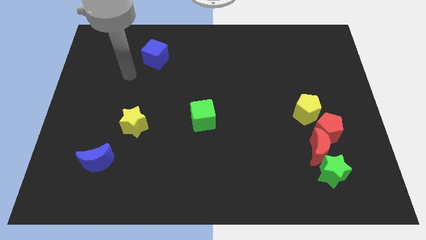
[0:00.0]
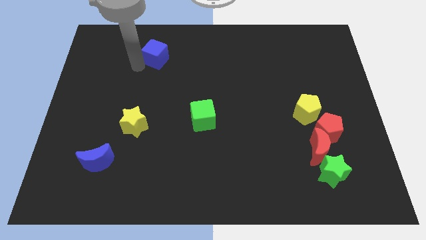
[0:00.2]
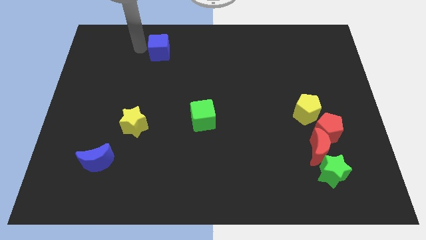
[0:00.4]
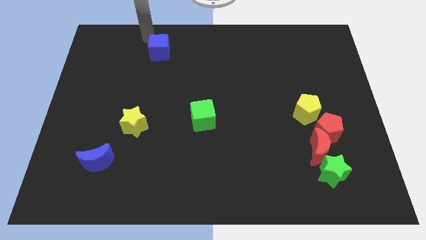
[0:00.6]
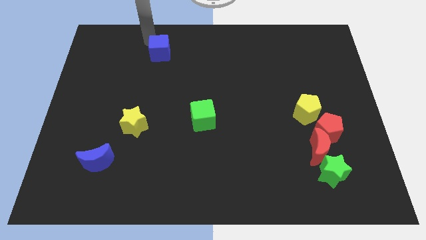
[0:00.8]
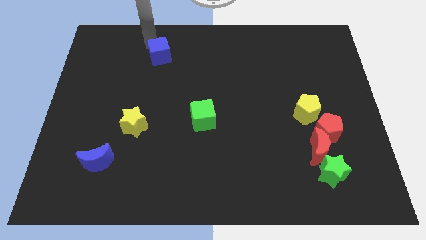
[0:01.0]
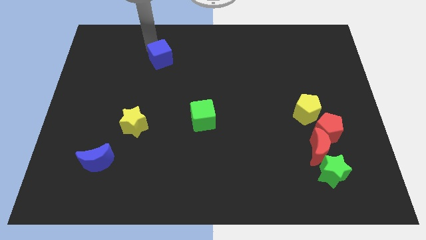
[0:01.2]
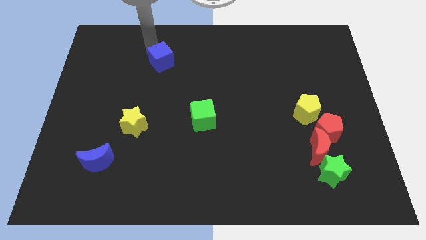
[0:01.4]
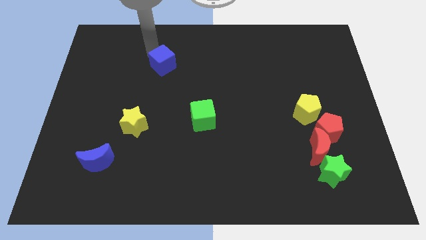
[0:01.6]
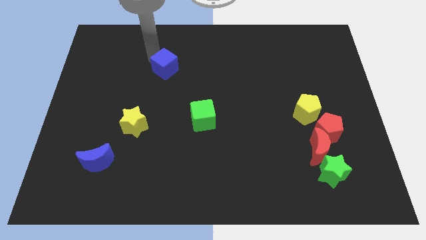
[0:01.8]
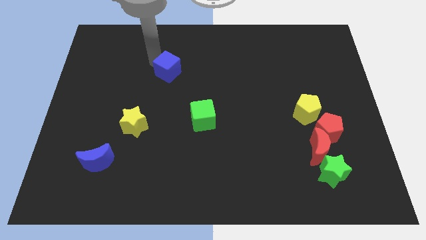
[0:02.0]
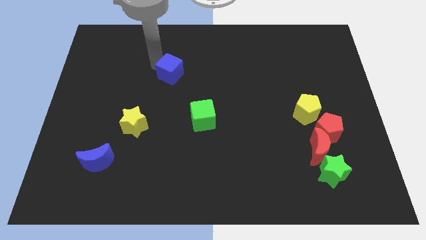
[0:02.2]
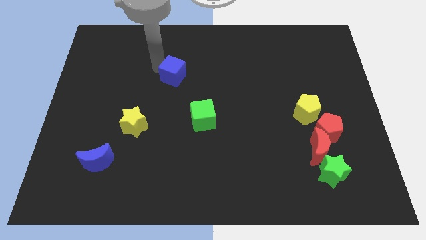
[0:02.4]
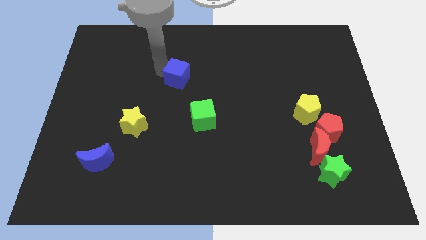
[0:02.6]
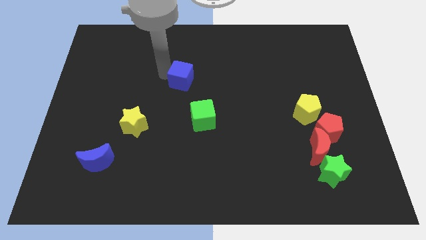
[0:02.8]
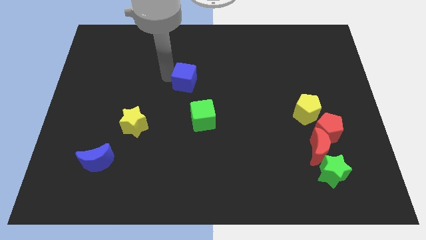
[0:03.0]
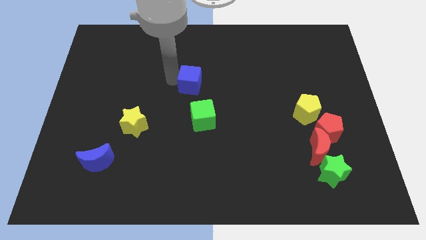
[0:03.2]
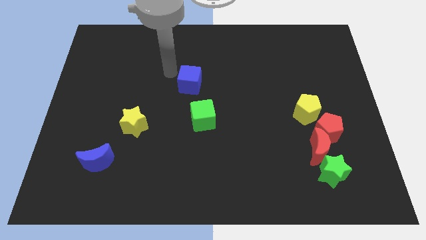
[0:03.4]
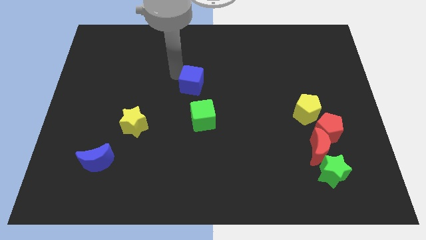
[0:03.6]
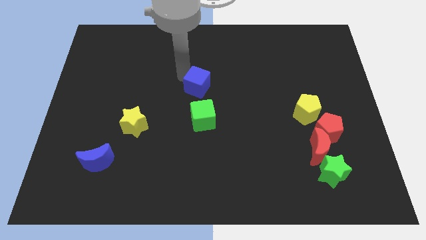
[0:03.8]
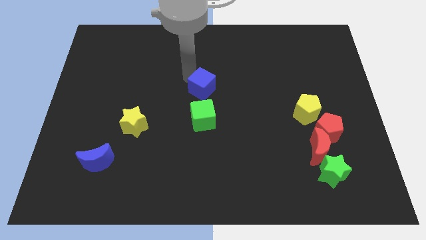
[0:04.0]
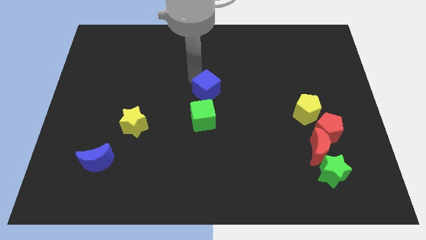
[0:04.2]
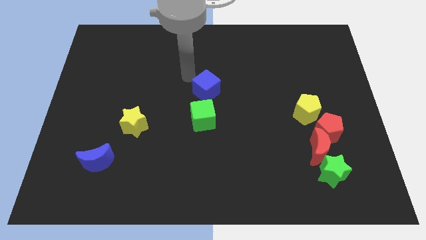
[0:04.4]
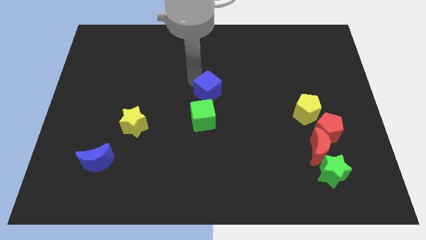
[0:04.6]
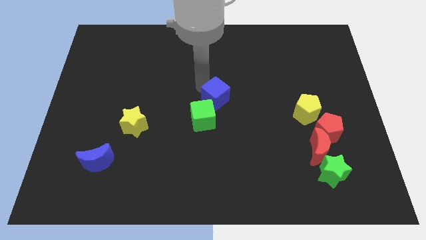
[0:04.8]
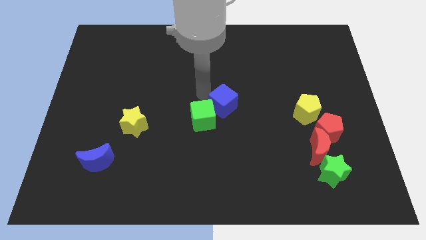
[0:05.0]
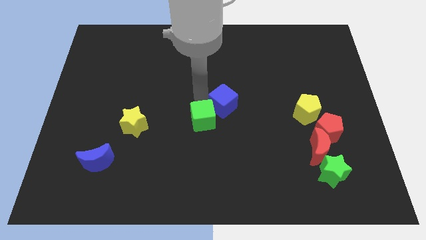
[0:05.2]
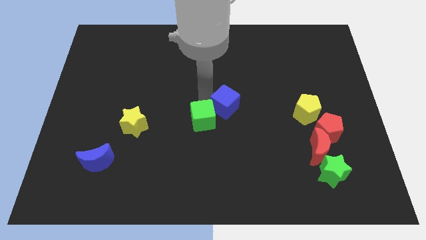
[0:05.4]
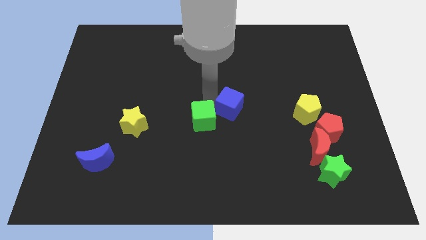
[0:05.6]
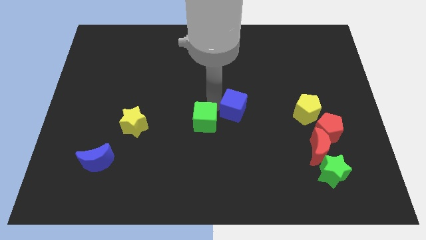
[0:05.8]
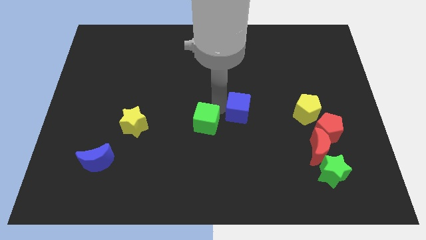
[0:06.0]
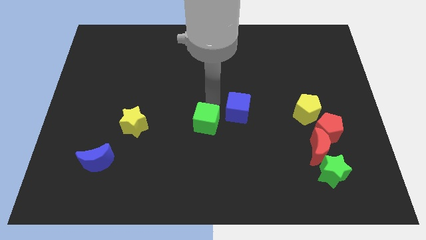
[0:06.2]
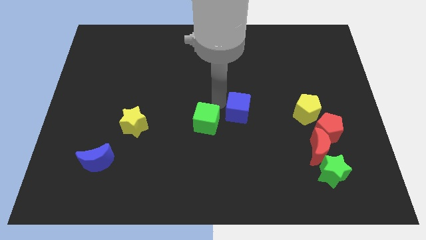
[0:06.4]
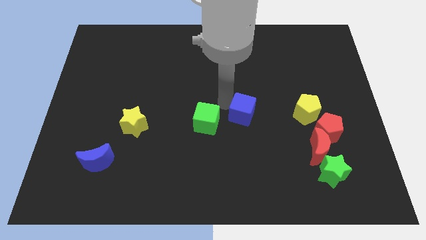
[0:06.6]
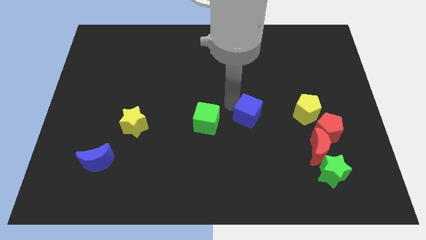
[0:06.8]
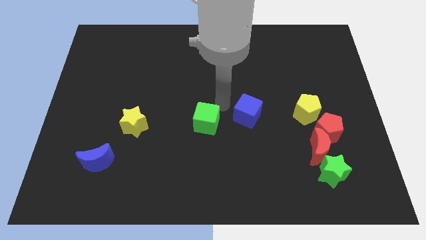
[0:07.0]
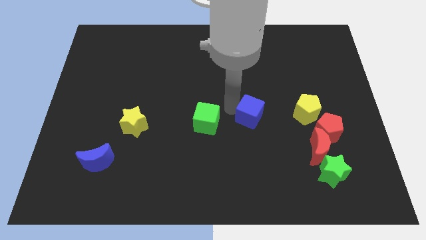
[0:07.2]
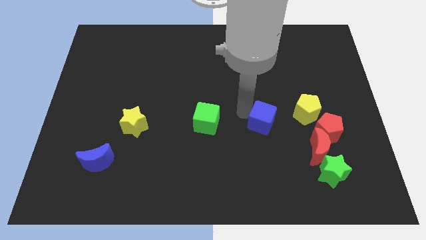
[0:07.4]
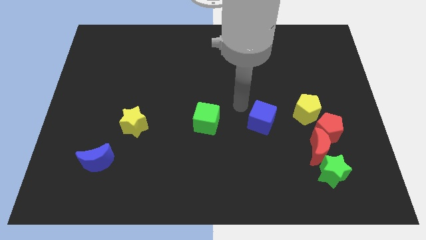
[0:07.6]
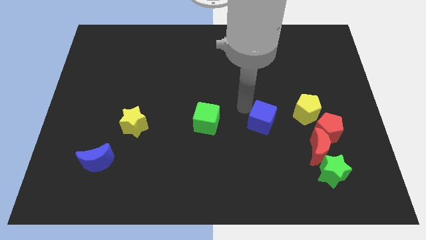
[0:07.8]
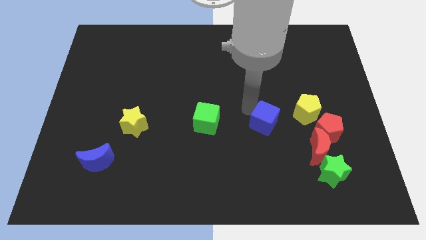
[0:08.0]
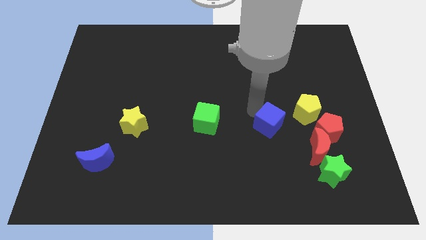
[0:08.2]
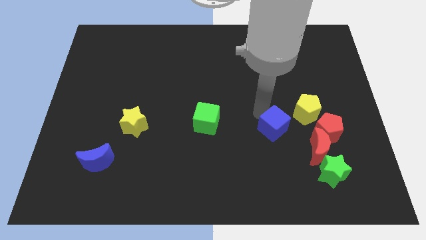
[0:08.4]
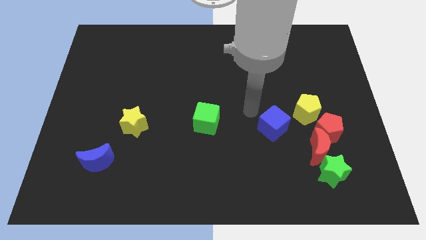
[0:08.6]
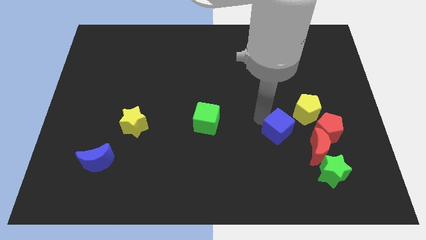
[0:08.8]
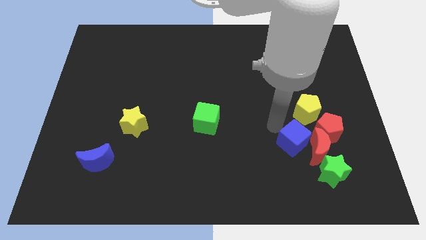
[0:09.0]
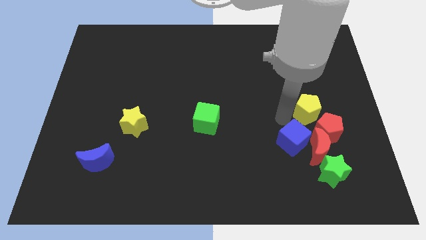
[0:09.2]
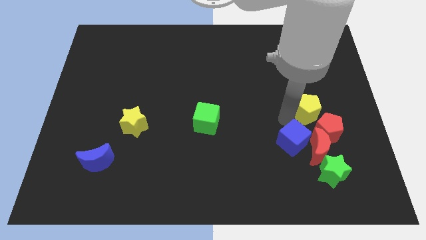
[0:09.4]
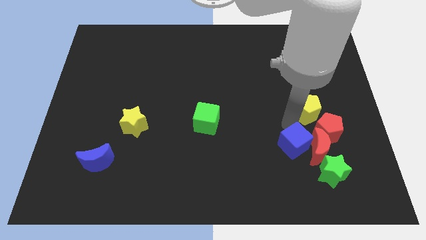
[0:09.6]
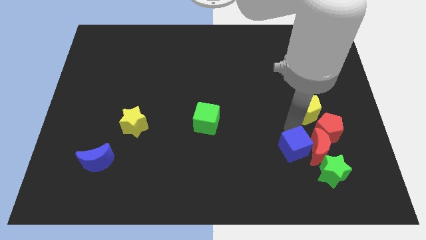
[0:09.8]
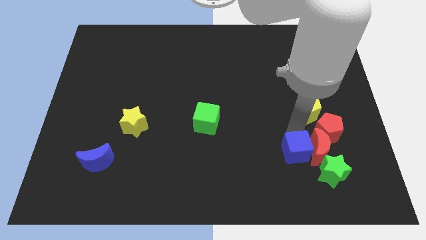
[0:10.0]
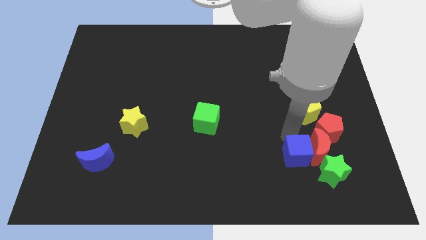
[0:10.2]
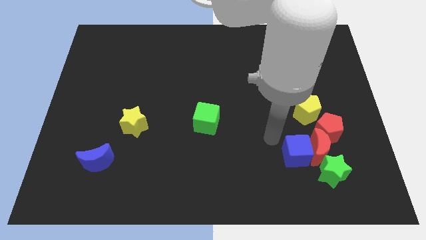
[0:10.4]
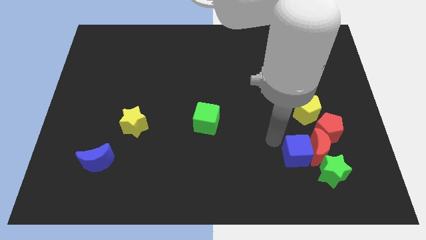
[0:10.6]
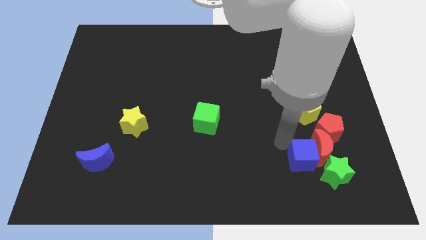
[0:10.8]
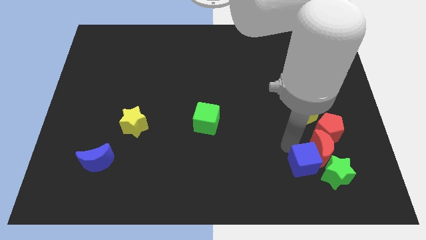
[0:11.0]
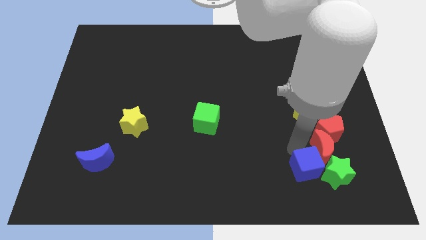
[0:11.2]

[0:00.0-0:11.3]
push the blue cube next to the green star
